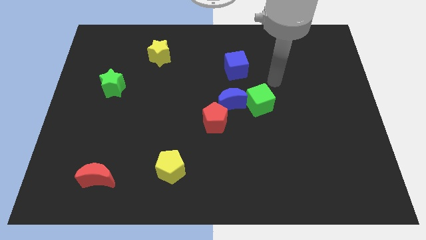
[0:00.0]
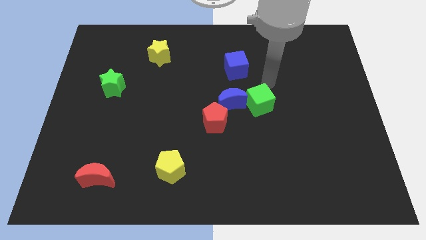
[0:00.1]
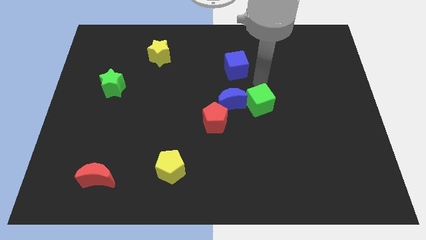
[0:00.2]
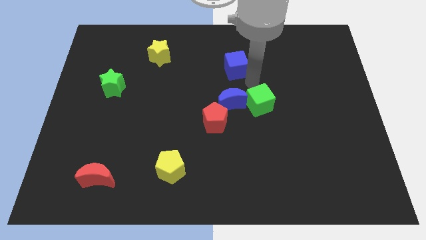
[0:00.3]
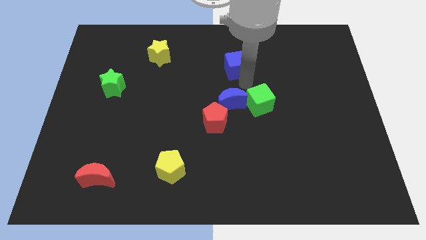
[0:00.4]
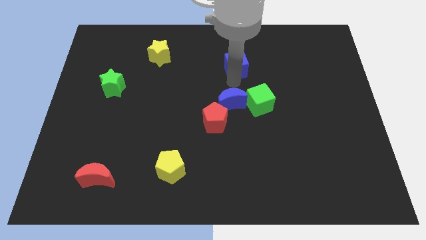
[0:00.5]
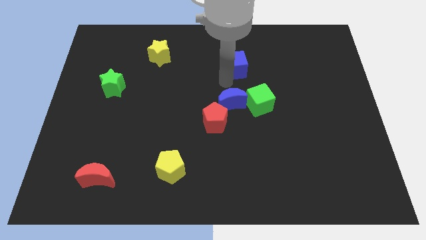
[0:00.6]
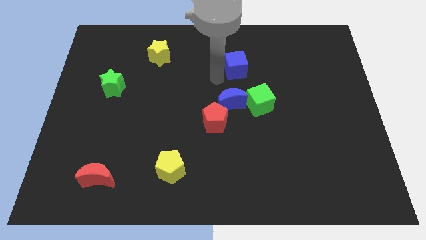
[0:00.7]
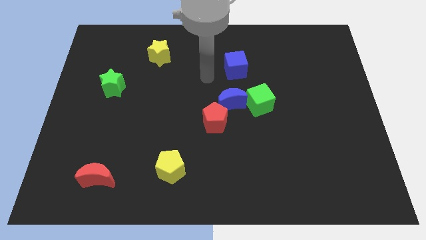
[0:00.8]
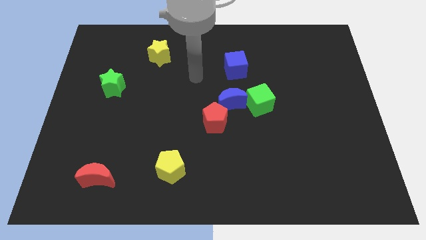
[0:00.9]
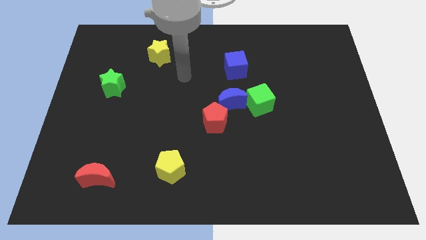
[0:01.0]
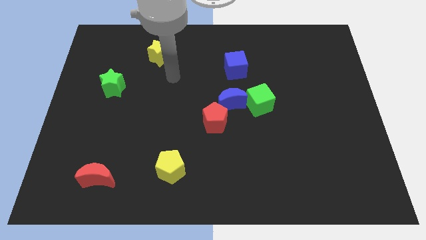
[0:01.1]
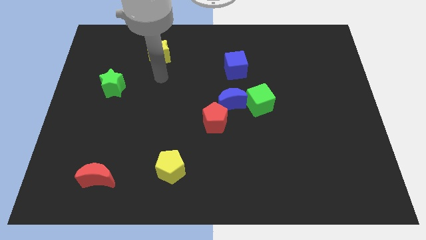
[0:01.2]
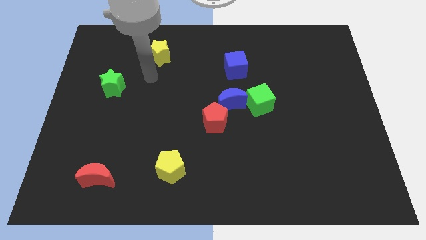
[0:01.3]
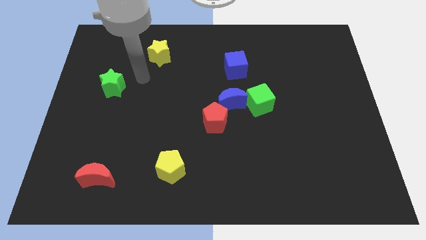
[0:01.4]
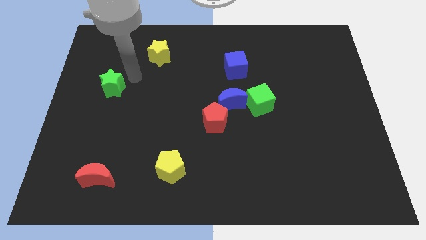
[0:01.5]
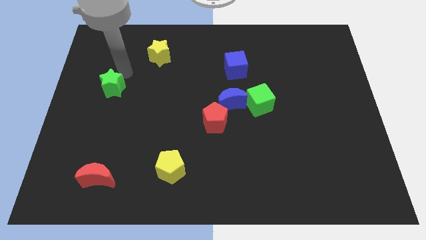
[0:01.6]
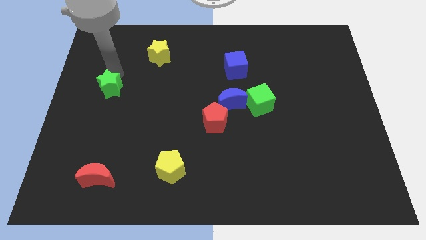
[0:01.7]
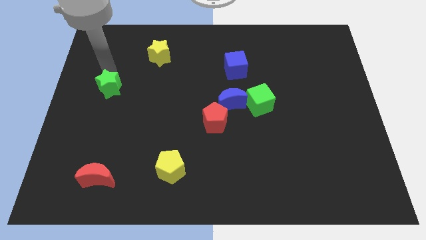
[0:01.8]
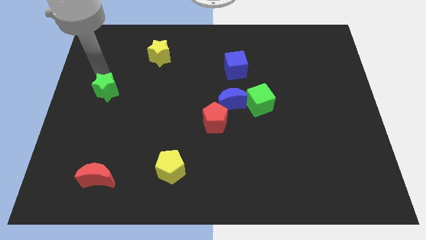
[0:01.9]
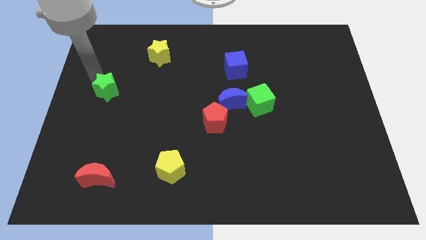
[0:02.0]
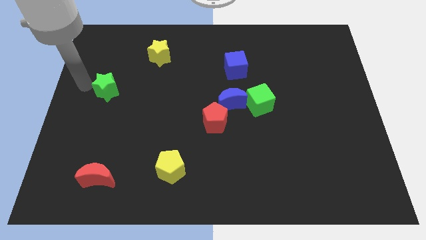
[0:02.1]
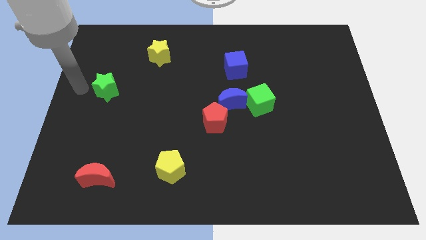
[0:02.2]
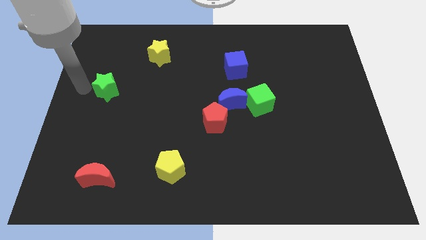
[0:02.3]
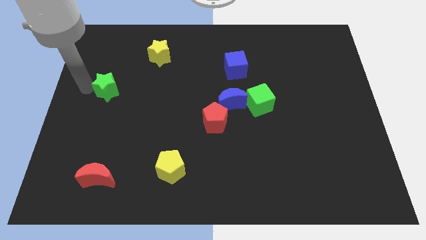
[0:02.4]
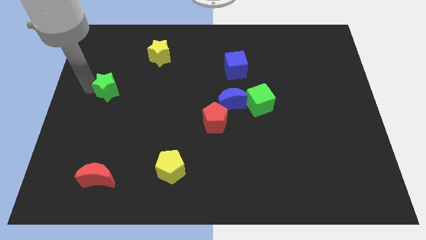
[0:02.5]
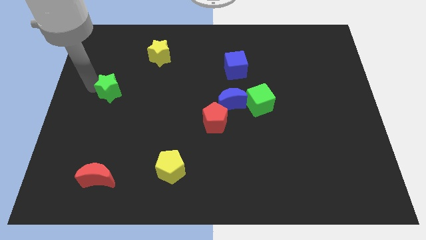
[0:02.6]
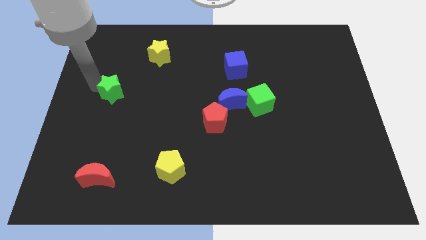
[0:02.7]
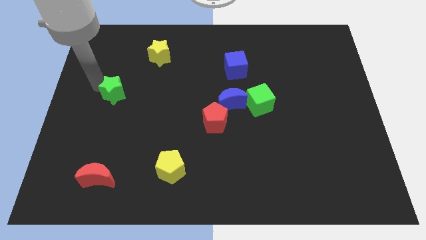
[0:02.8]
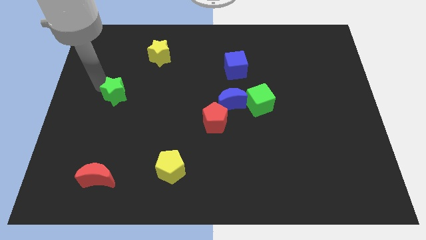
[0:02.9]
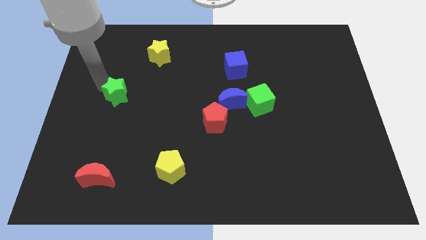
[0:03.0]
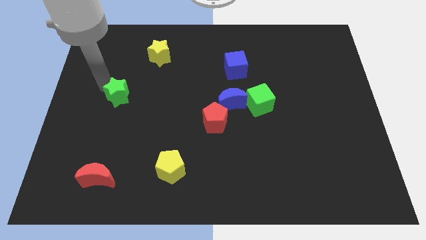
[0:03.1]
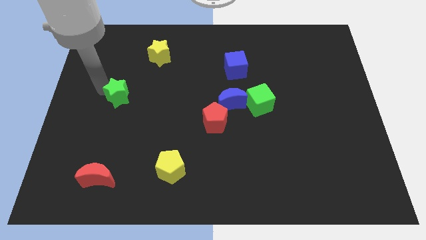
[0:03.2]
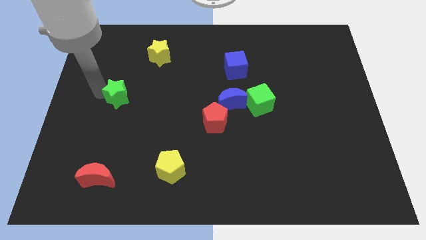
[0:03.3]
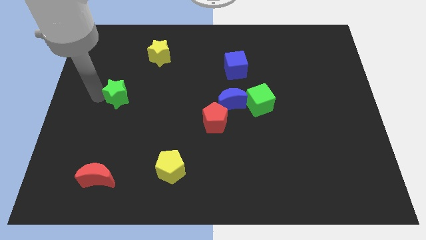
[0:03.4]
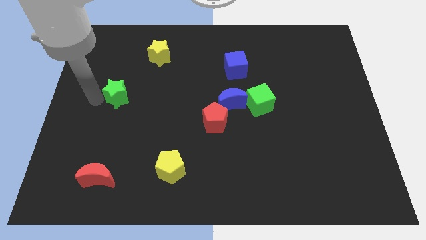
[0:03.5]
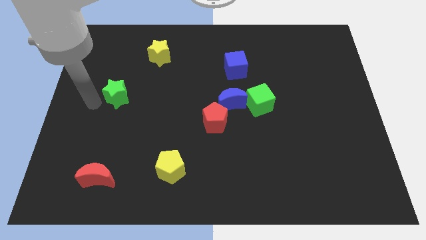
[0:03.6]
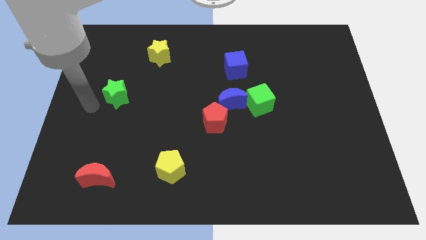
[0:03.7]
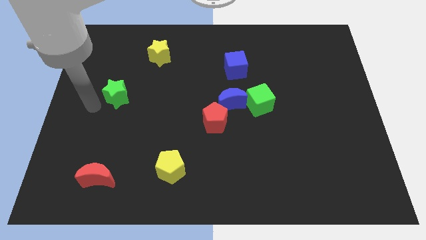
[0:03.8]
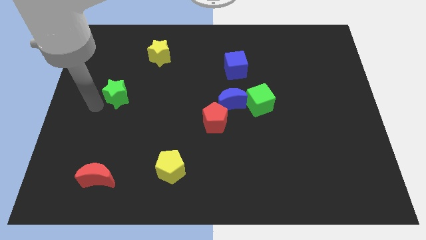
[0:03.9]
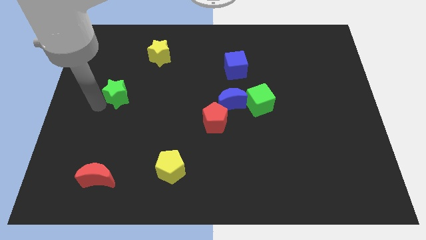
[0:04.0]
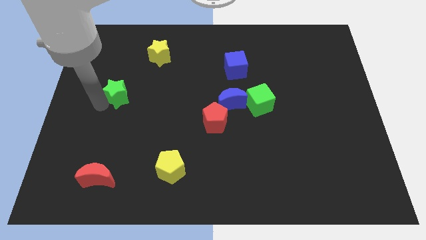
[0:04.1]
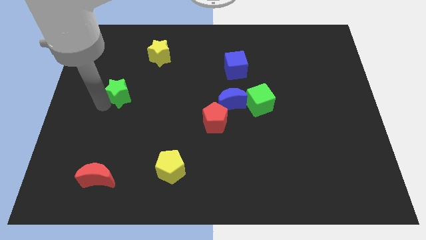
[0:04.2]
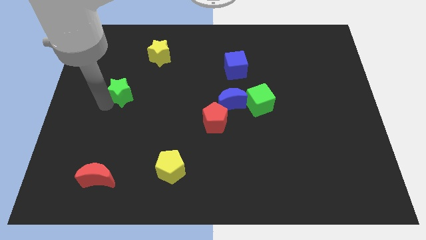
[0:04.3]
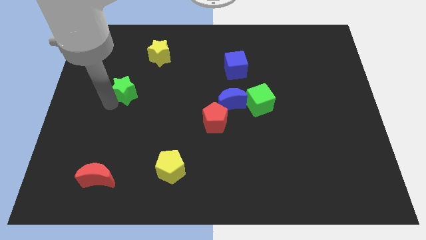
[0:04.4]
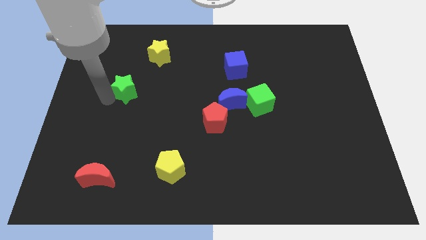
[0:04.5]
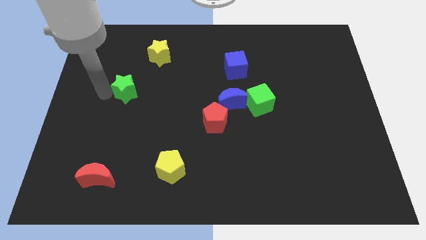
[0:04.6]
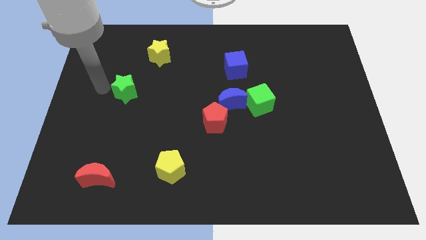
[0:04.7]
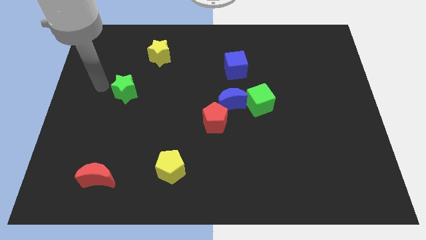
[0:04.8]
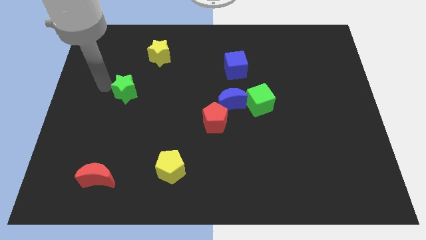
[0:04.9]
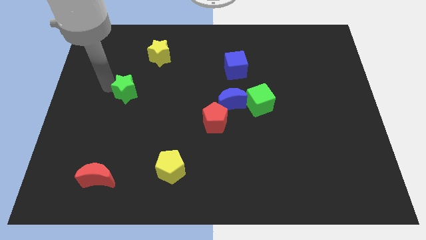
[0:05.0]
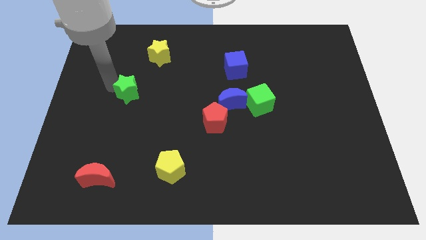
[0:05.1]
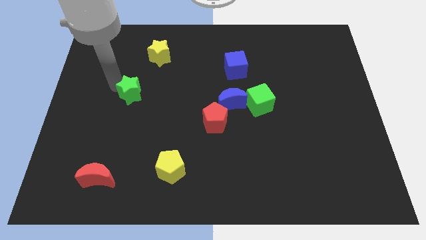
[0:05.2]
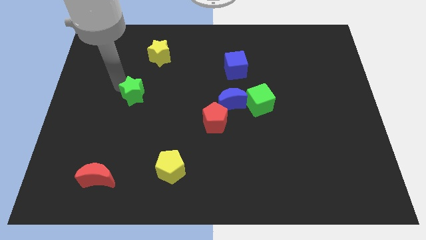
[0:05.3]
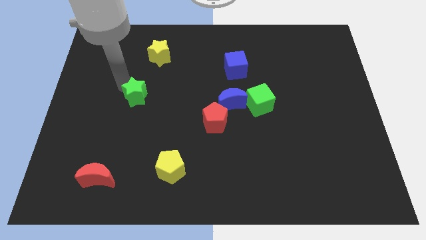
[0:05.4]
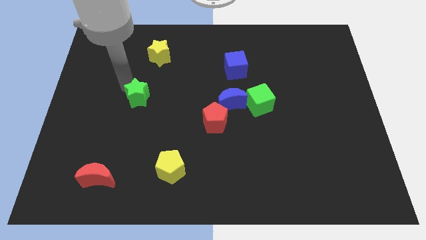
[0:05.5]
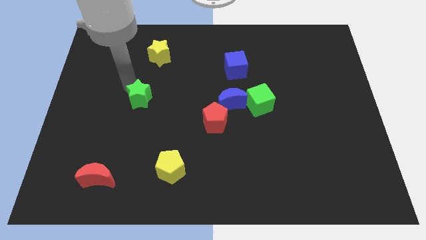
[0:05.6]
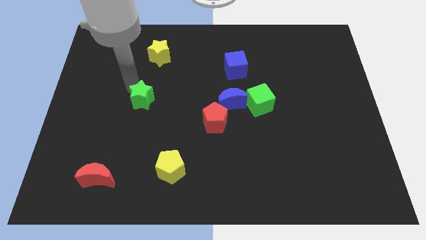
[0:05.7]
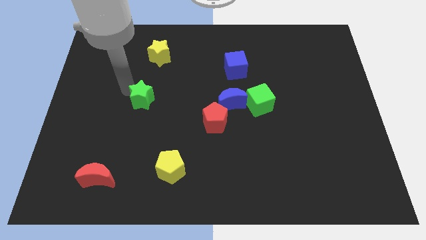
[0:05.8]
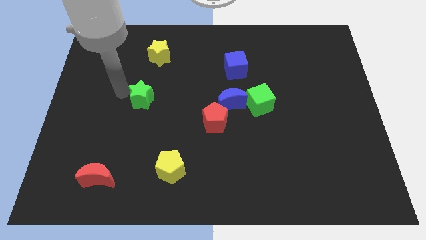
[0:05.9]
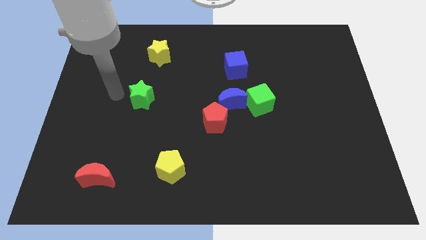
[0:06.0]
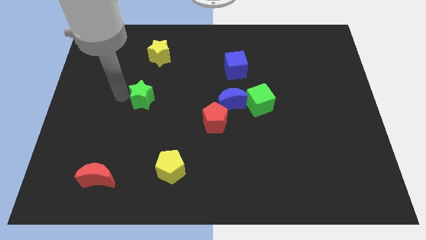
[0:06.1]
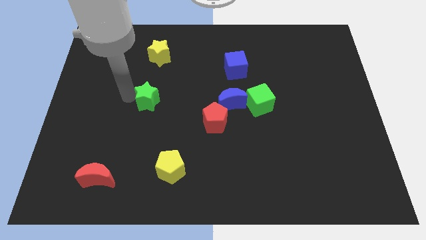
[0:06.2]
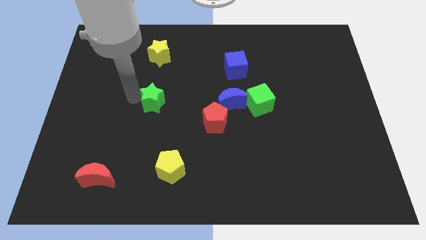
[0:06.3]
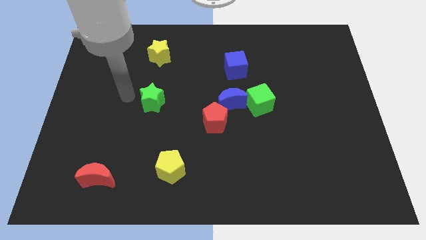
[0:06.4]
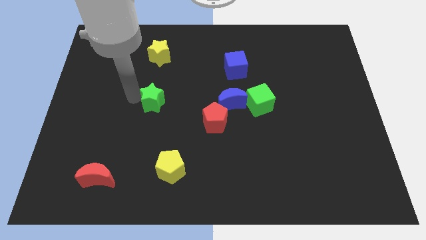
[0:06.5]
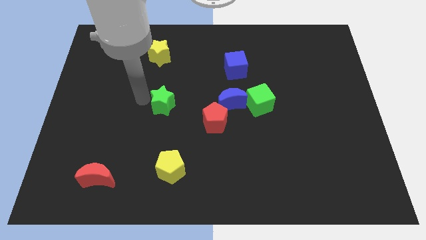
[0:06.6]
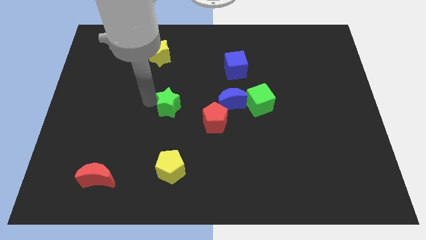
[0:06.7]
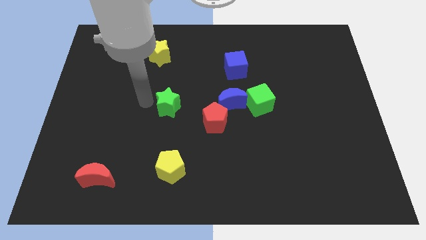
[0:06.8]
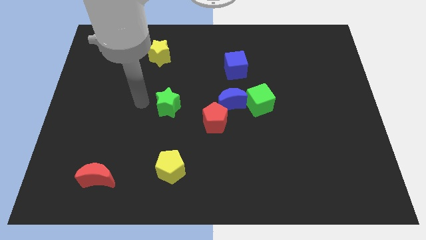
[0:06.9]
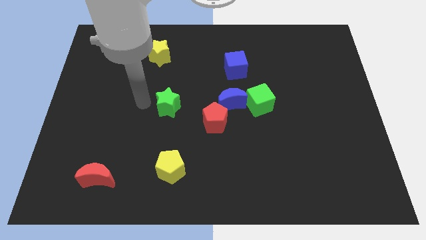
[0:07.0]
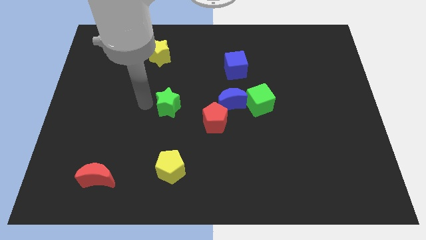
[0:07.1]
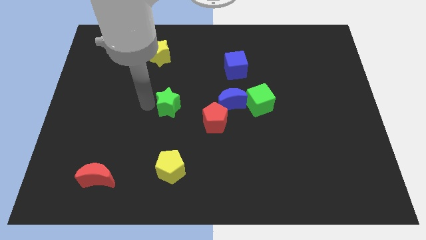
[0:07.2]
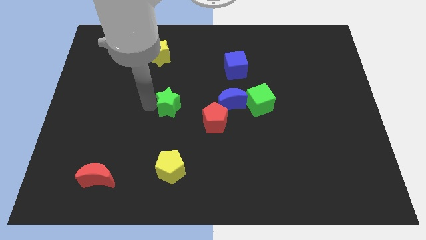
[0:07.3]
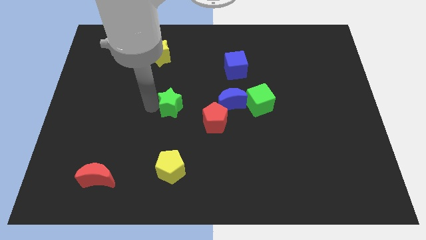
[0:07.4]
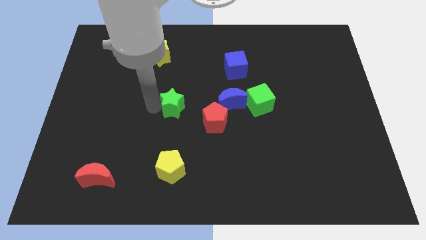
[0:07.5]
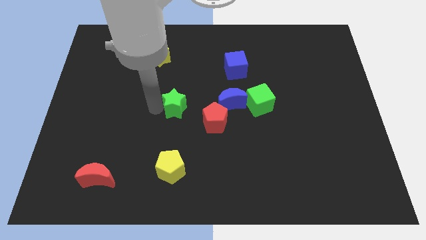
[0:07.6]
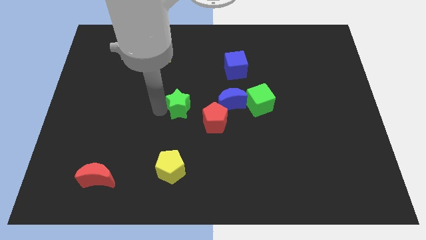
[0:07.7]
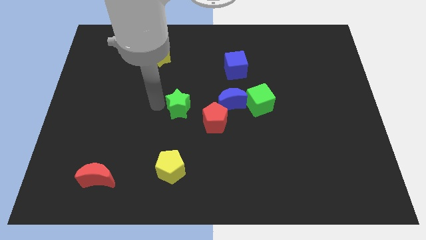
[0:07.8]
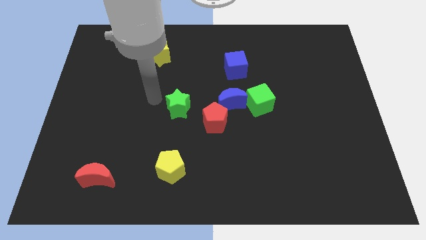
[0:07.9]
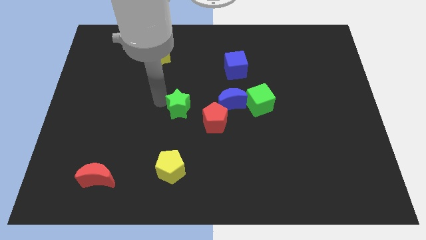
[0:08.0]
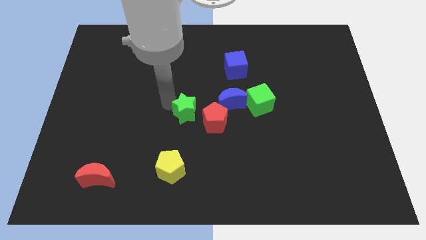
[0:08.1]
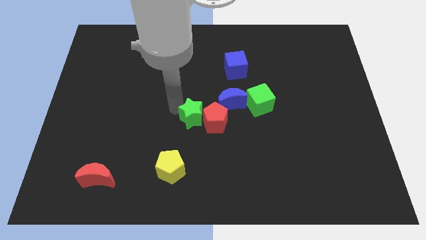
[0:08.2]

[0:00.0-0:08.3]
move the green star next to the red pentagon
